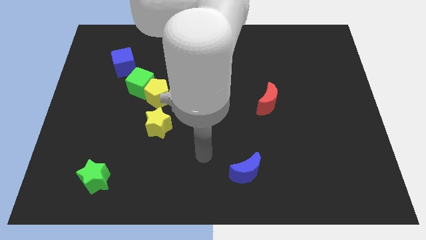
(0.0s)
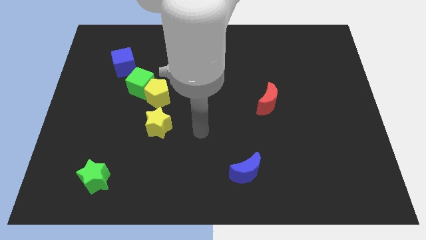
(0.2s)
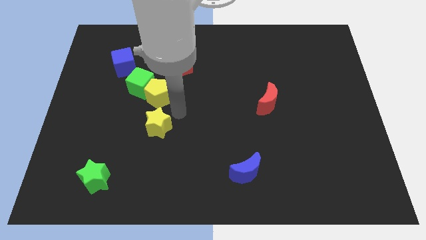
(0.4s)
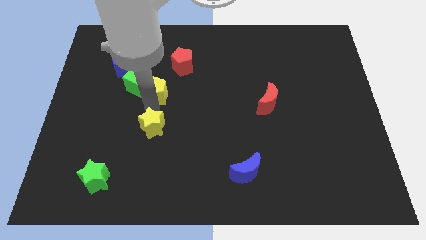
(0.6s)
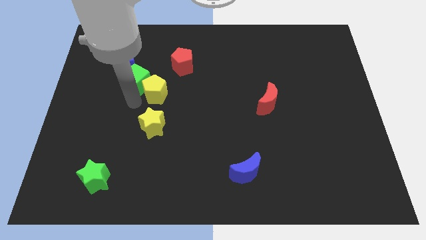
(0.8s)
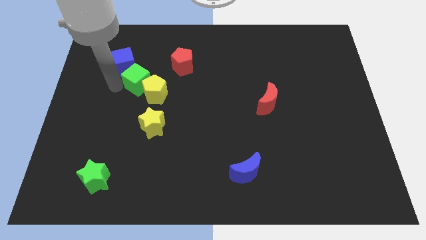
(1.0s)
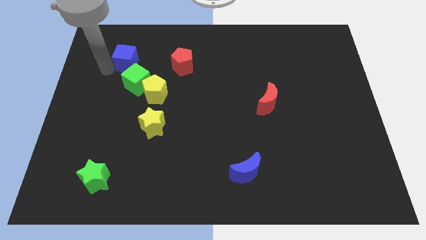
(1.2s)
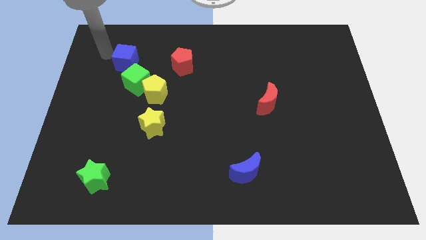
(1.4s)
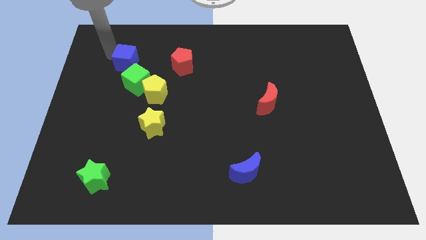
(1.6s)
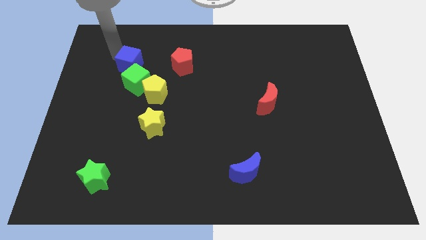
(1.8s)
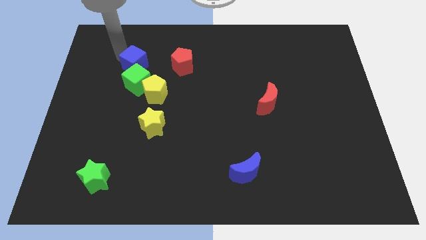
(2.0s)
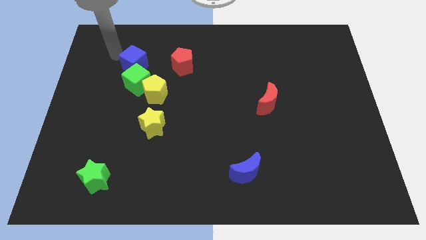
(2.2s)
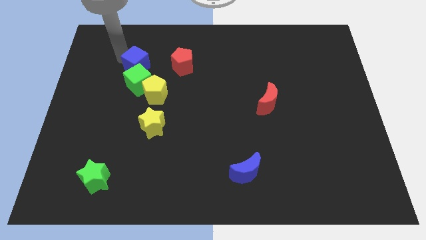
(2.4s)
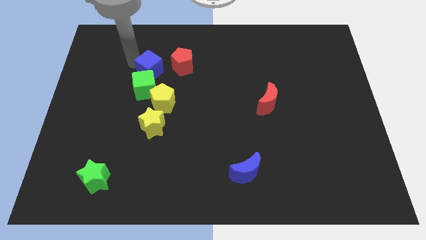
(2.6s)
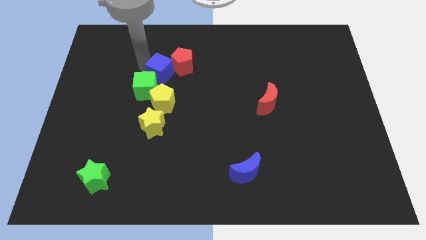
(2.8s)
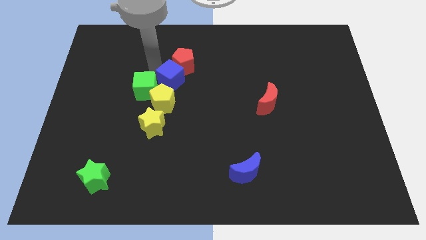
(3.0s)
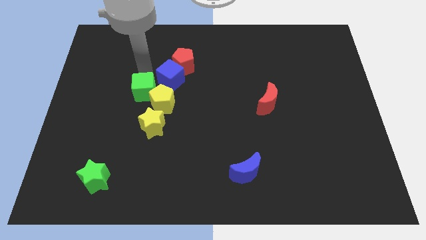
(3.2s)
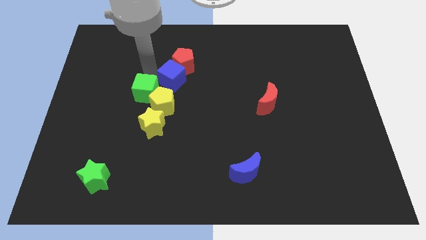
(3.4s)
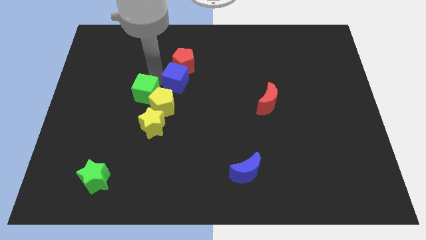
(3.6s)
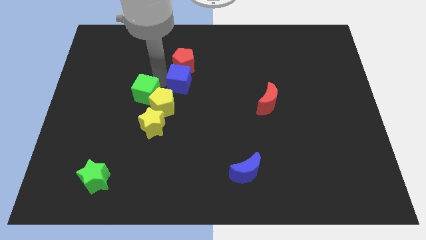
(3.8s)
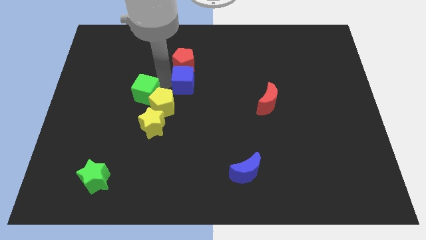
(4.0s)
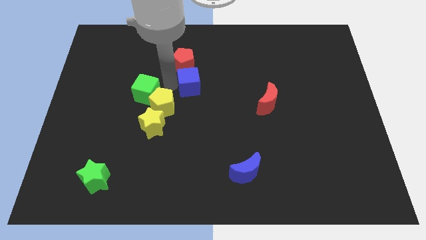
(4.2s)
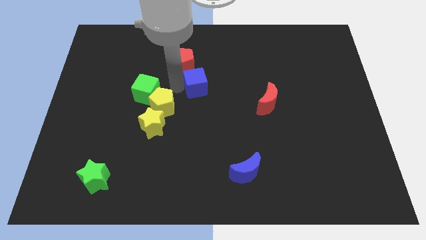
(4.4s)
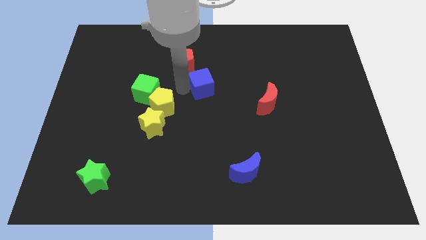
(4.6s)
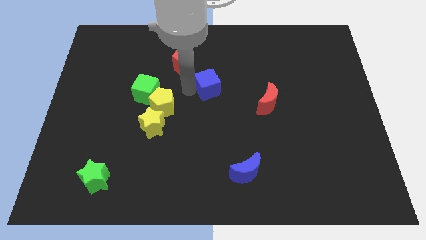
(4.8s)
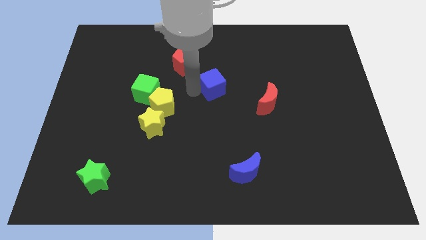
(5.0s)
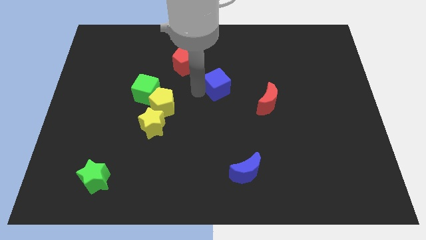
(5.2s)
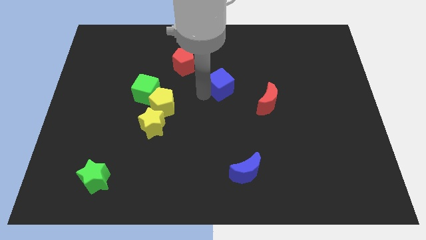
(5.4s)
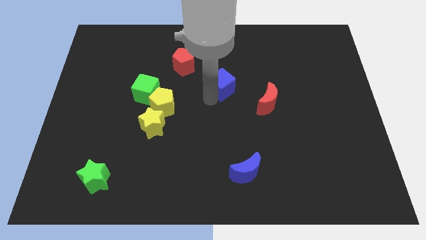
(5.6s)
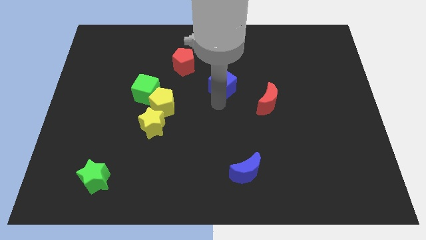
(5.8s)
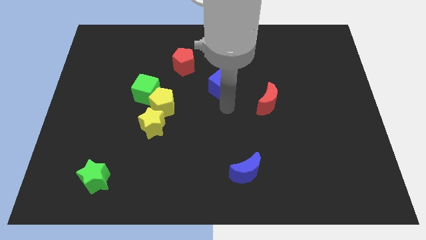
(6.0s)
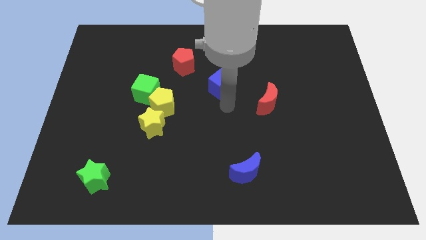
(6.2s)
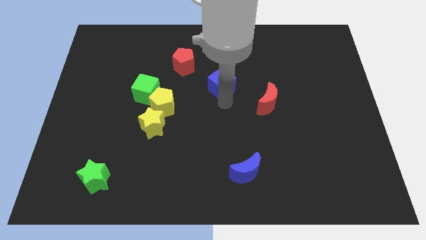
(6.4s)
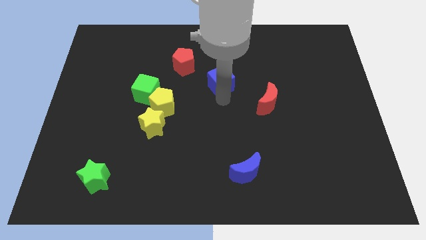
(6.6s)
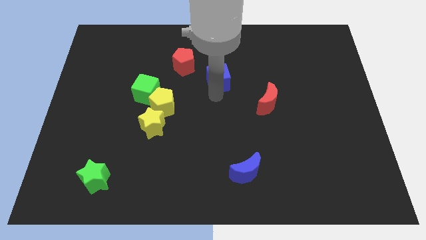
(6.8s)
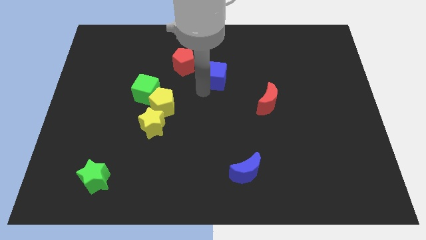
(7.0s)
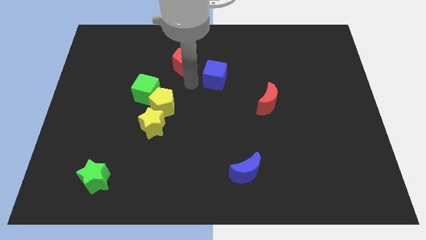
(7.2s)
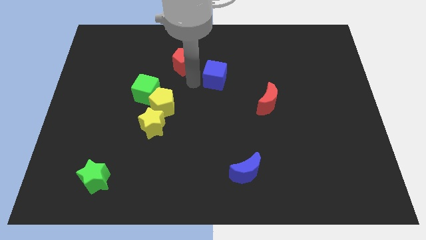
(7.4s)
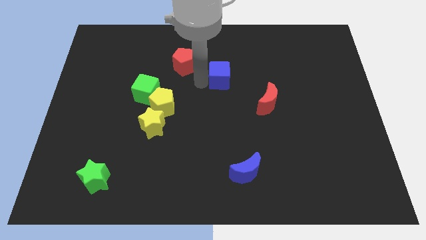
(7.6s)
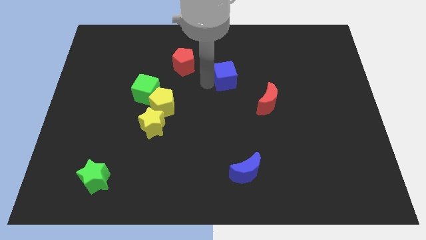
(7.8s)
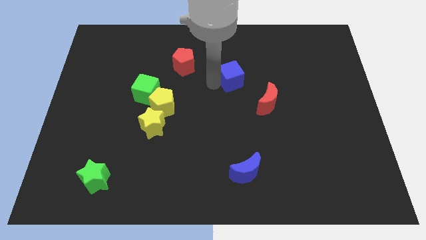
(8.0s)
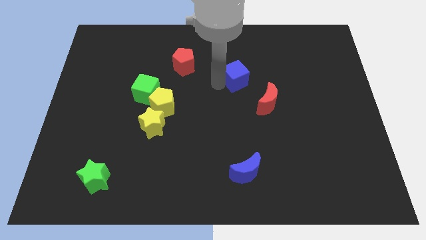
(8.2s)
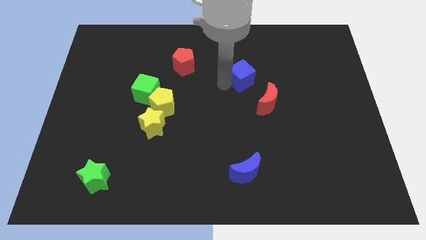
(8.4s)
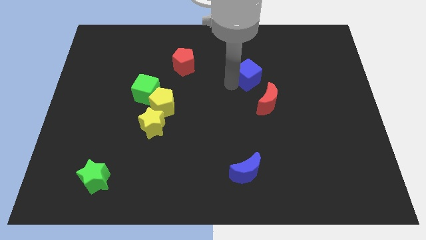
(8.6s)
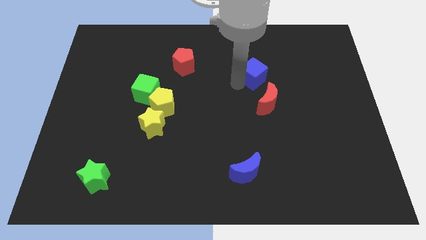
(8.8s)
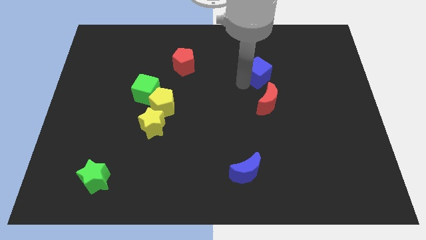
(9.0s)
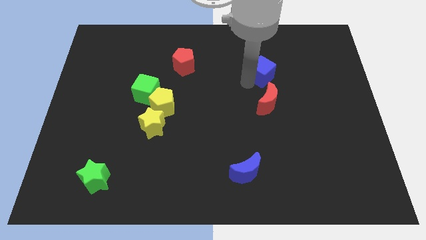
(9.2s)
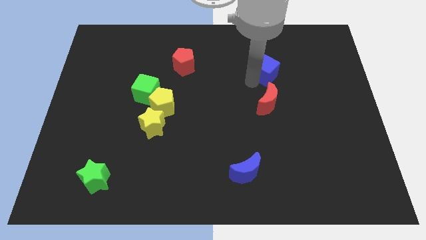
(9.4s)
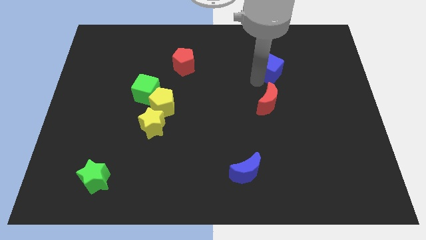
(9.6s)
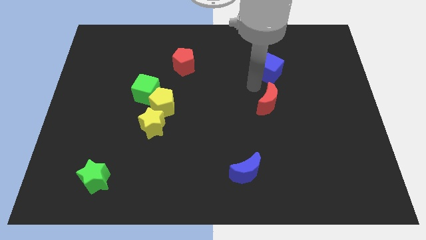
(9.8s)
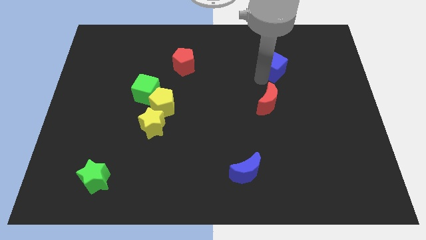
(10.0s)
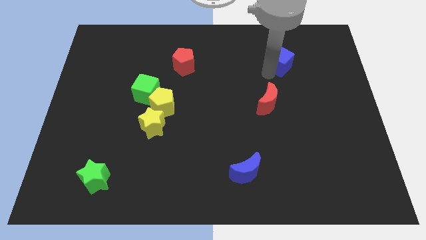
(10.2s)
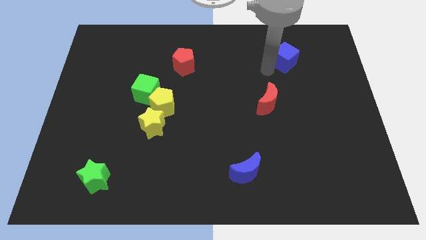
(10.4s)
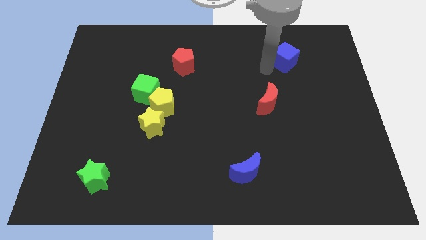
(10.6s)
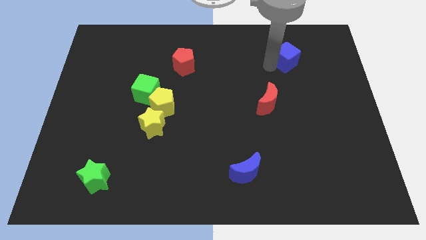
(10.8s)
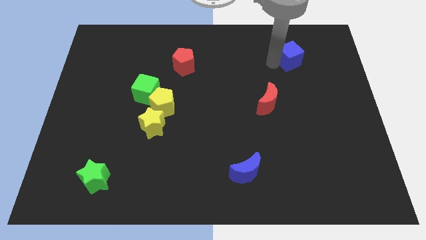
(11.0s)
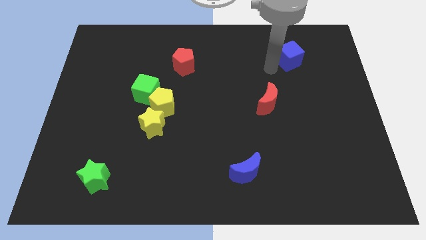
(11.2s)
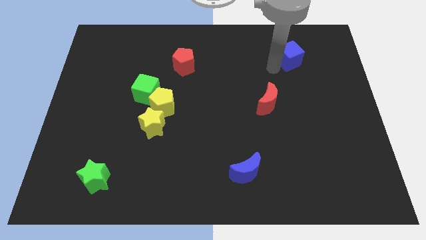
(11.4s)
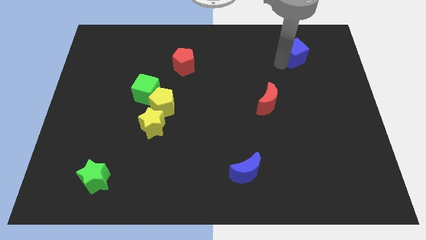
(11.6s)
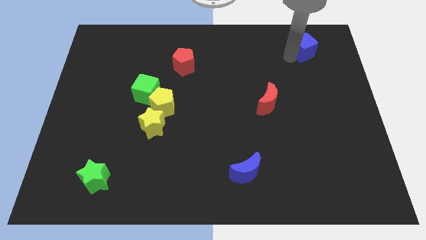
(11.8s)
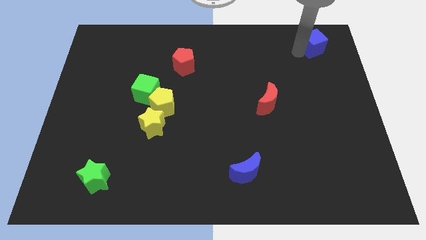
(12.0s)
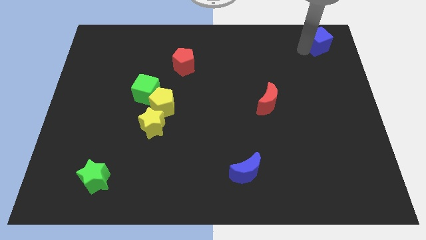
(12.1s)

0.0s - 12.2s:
slide the blue cube to the top right corner
